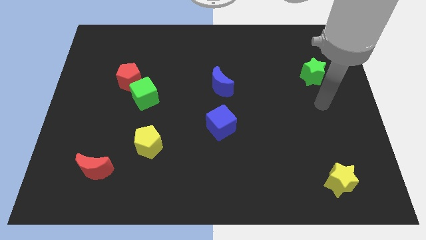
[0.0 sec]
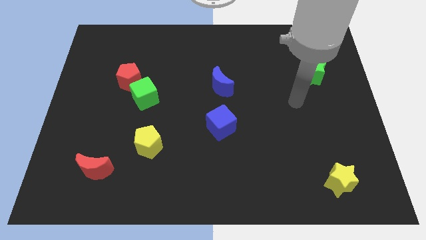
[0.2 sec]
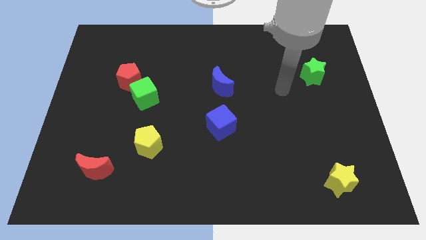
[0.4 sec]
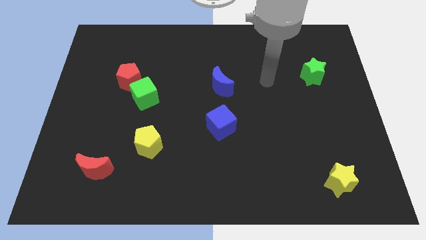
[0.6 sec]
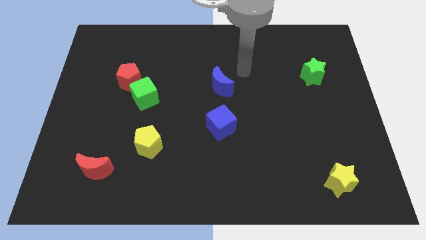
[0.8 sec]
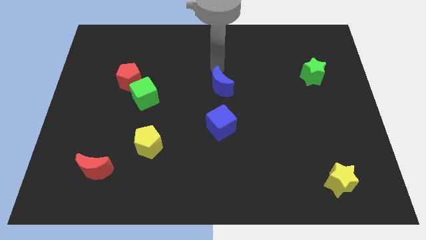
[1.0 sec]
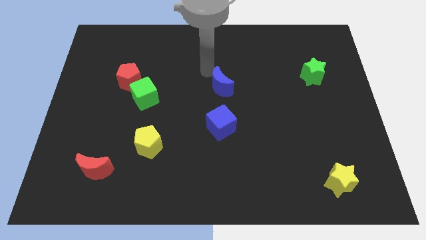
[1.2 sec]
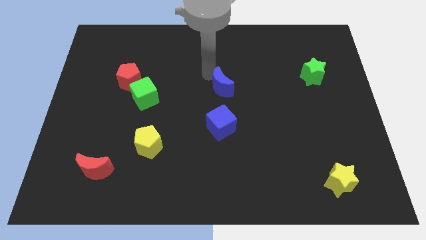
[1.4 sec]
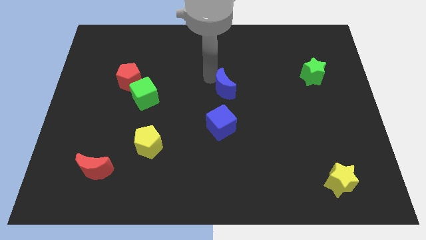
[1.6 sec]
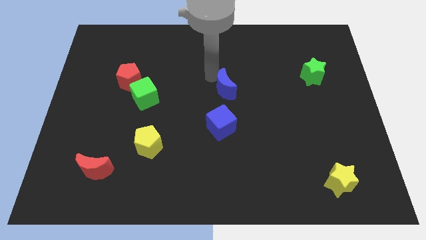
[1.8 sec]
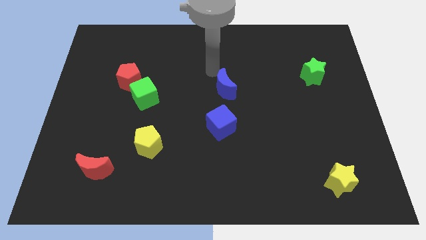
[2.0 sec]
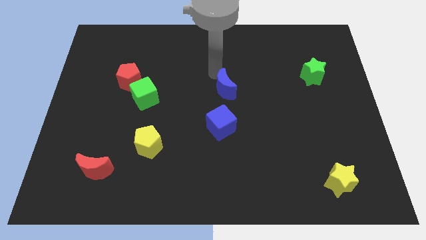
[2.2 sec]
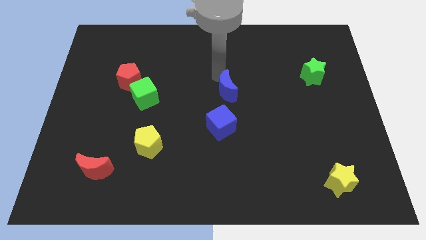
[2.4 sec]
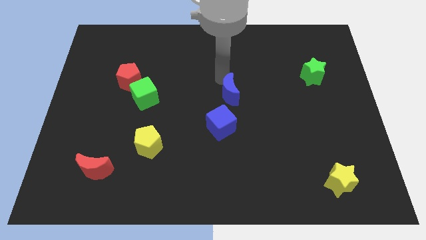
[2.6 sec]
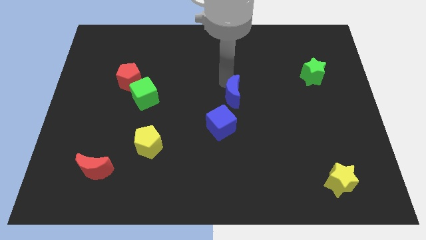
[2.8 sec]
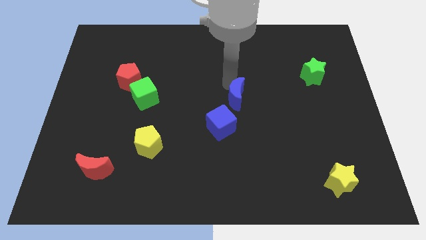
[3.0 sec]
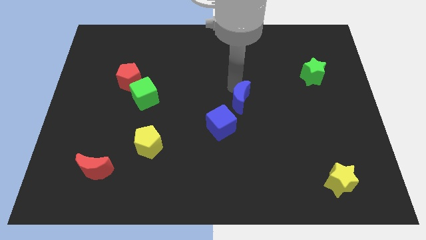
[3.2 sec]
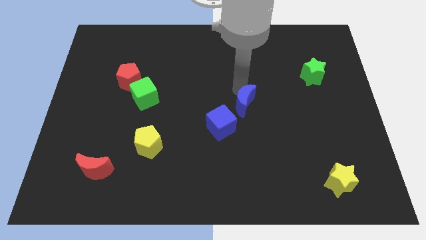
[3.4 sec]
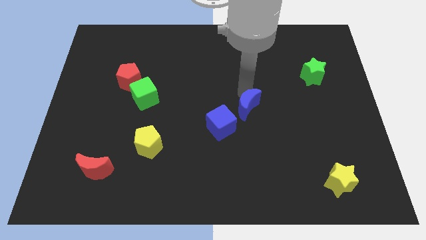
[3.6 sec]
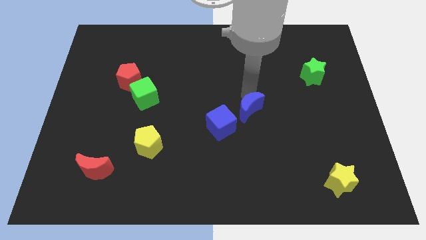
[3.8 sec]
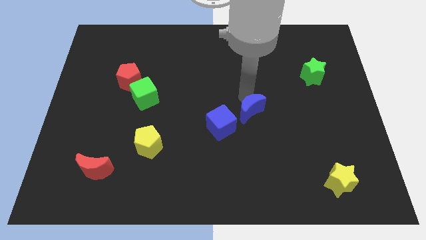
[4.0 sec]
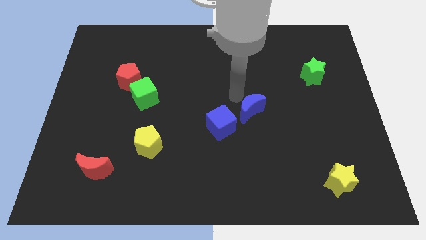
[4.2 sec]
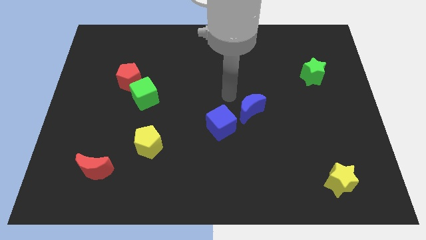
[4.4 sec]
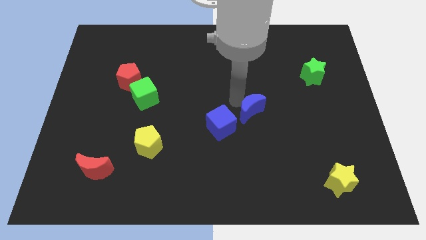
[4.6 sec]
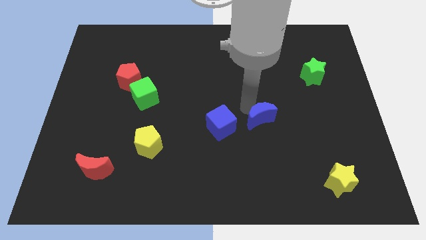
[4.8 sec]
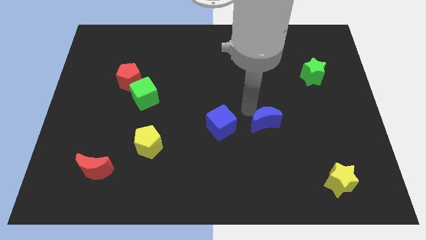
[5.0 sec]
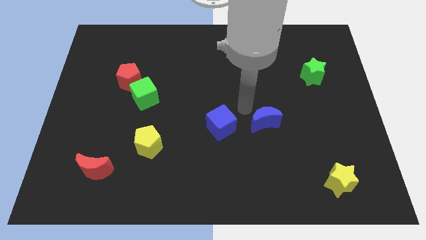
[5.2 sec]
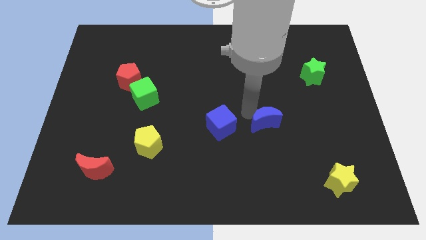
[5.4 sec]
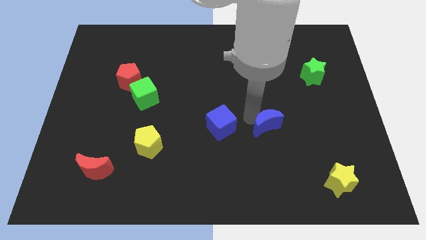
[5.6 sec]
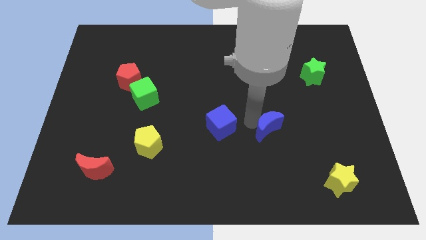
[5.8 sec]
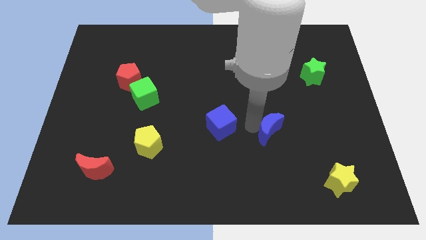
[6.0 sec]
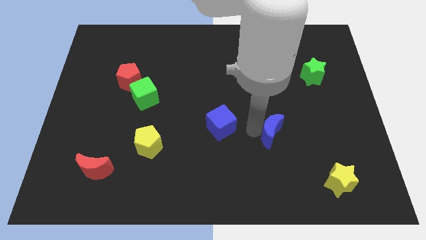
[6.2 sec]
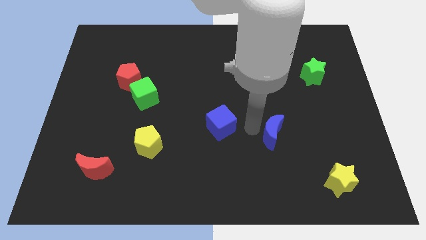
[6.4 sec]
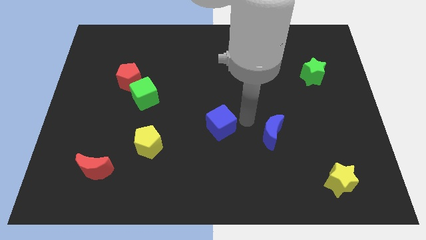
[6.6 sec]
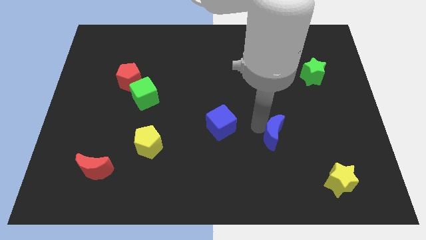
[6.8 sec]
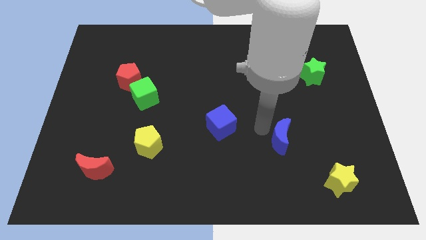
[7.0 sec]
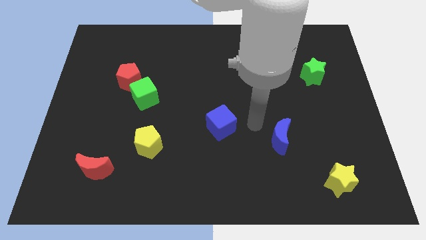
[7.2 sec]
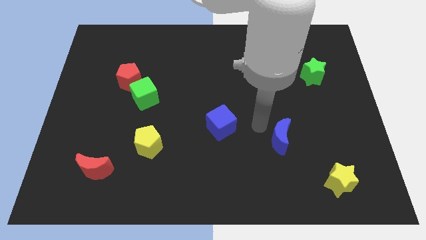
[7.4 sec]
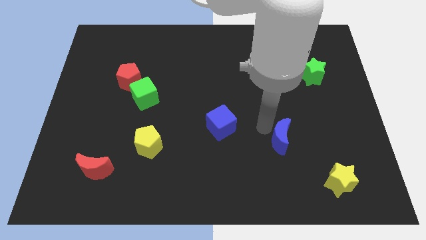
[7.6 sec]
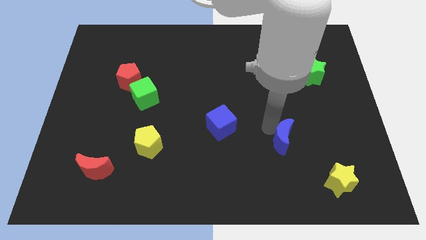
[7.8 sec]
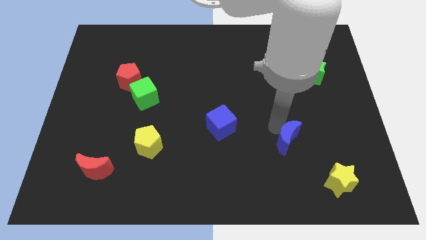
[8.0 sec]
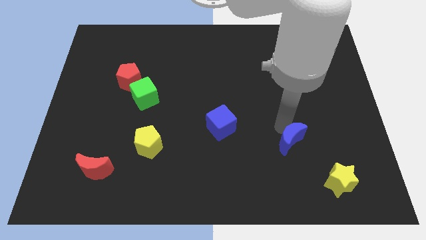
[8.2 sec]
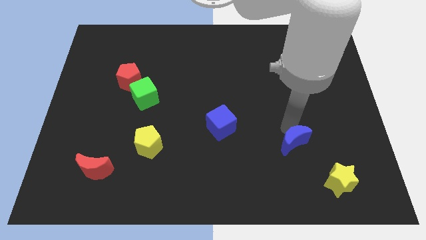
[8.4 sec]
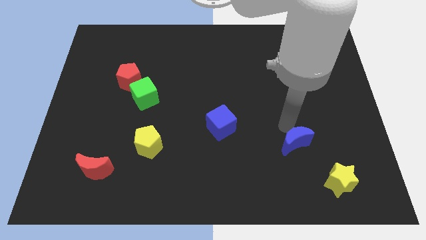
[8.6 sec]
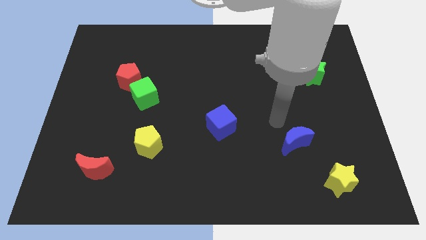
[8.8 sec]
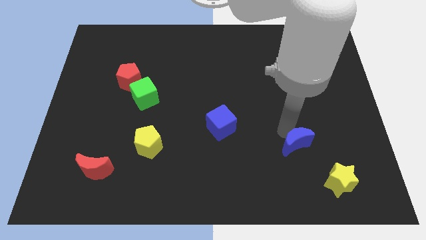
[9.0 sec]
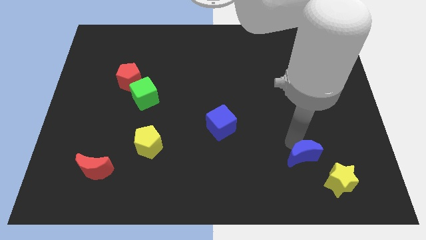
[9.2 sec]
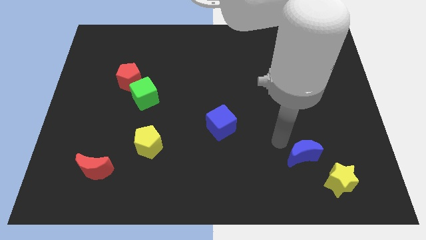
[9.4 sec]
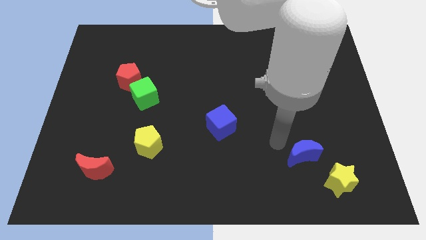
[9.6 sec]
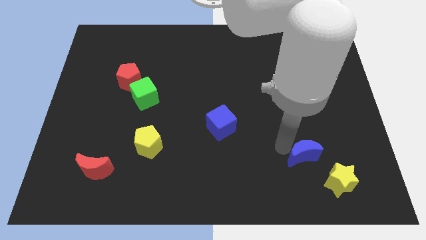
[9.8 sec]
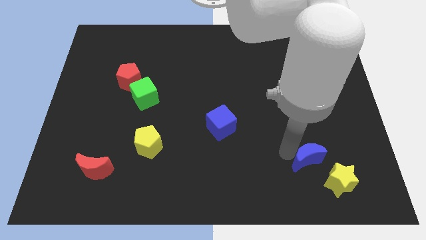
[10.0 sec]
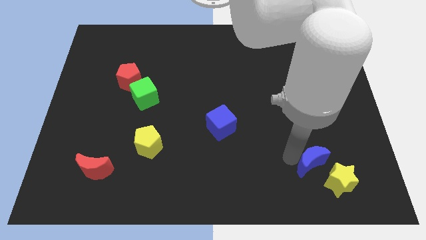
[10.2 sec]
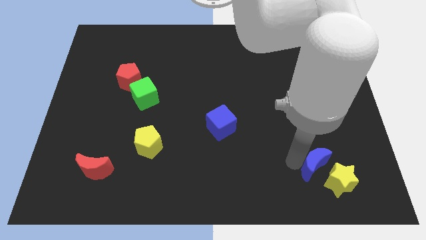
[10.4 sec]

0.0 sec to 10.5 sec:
put the blue moon towards the yellow star

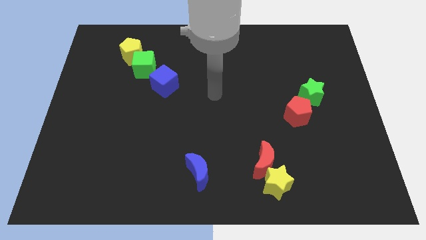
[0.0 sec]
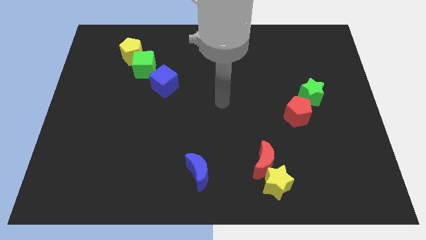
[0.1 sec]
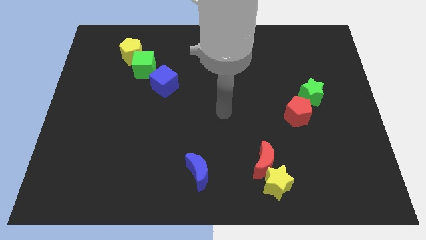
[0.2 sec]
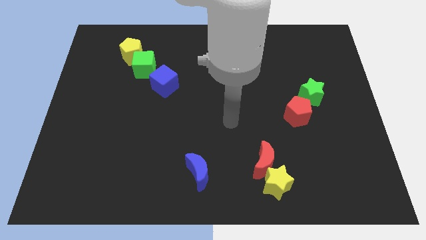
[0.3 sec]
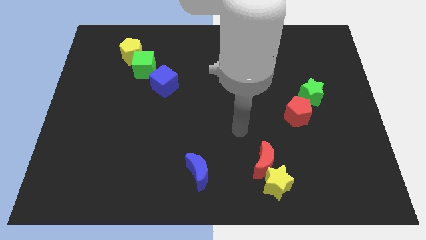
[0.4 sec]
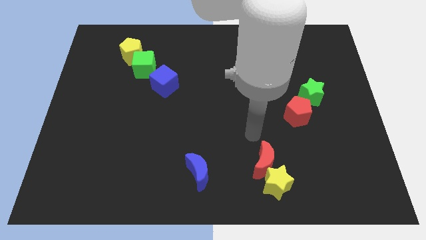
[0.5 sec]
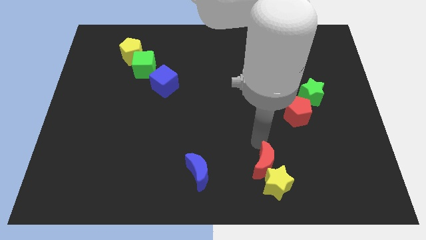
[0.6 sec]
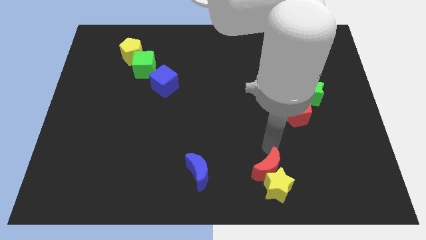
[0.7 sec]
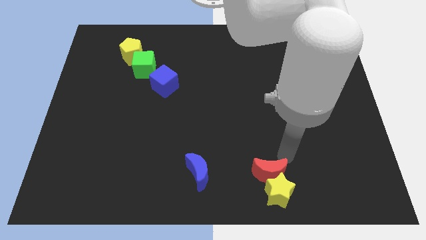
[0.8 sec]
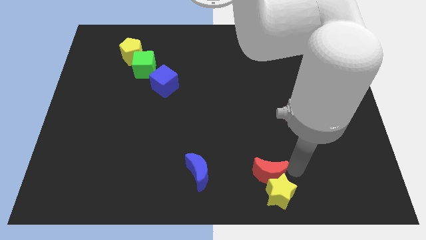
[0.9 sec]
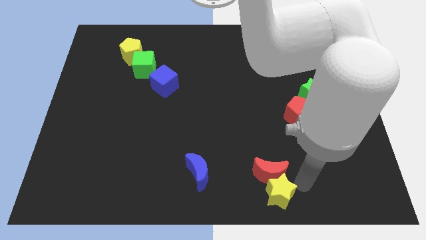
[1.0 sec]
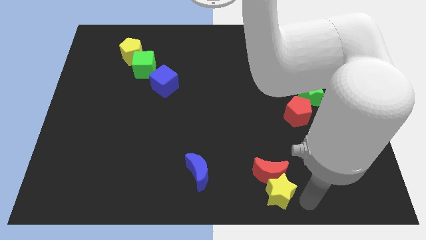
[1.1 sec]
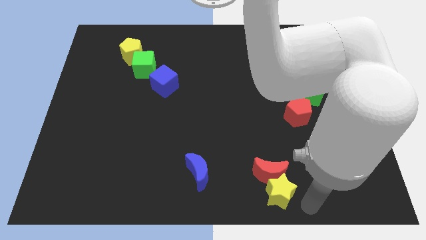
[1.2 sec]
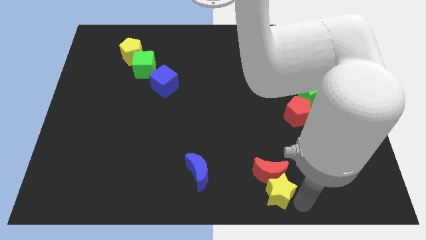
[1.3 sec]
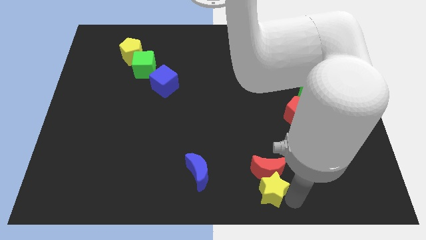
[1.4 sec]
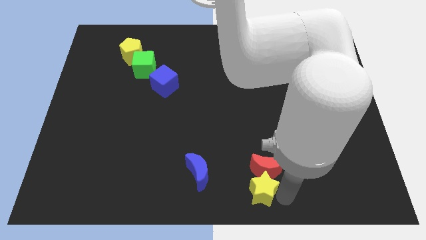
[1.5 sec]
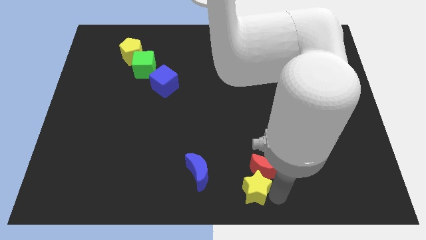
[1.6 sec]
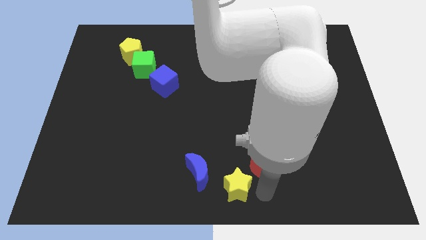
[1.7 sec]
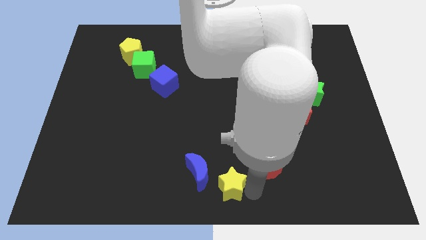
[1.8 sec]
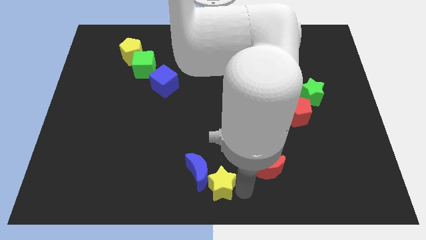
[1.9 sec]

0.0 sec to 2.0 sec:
put the yellow star close to the blue moon
